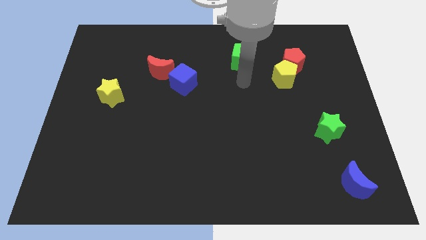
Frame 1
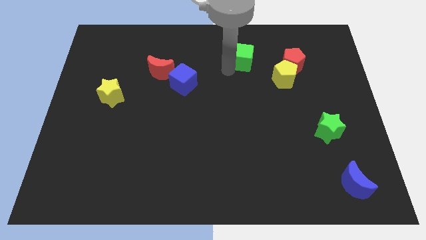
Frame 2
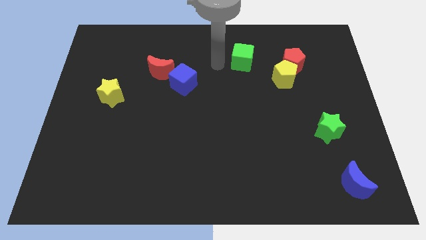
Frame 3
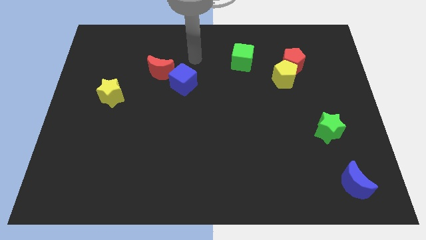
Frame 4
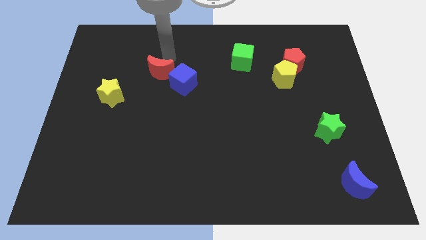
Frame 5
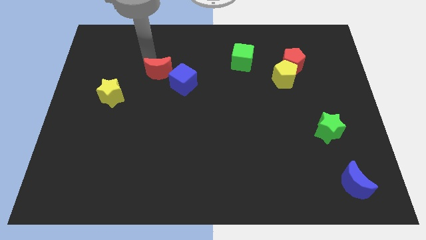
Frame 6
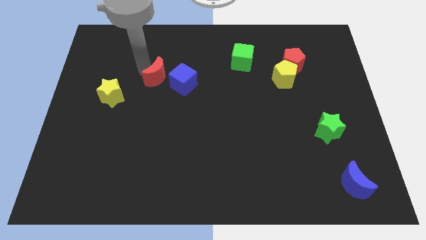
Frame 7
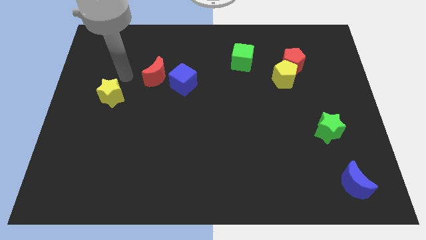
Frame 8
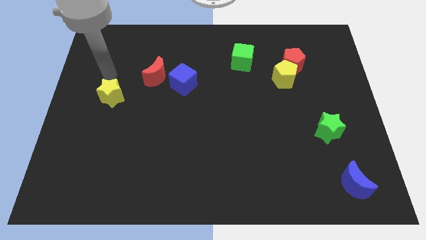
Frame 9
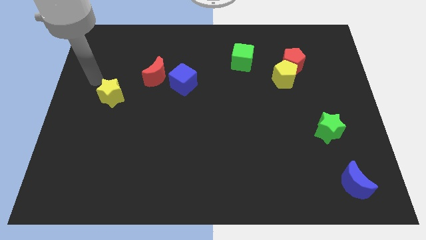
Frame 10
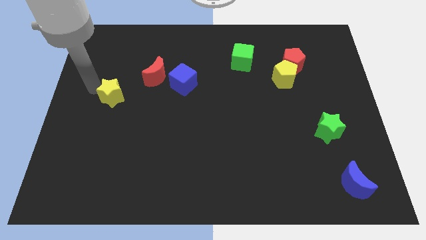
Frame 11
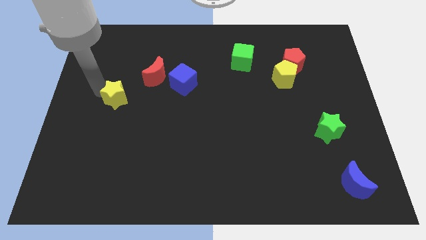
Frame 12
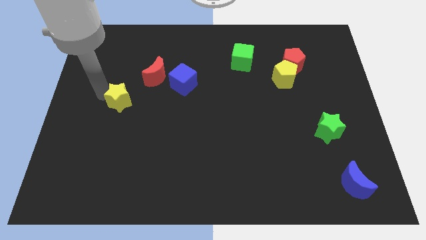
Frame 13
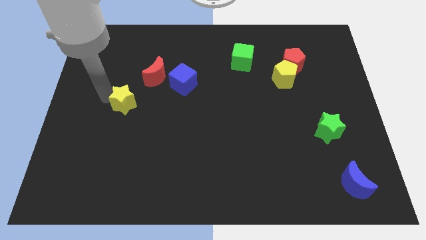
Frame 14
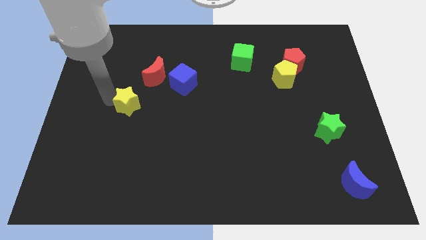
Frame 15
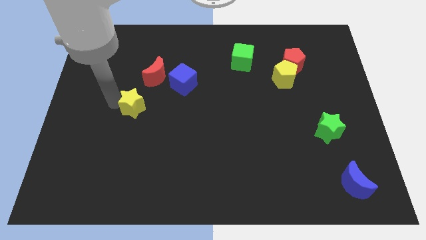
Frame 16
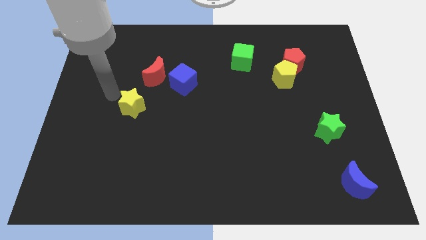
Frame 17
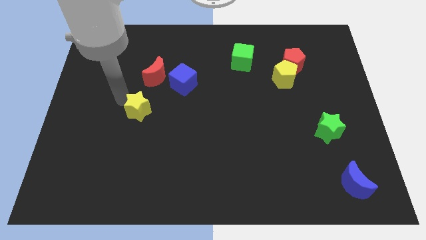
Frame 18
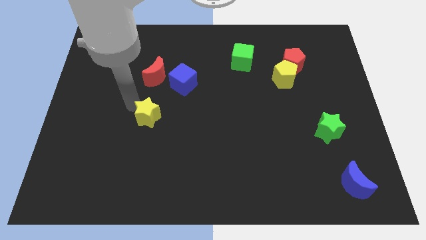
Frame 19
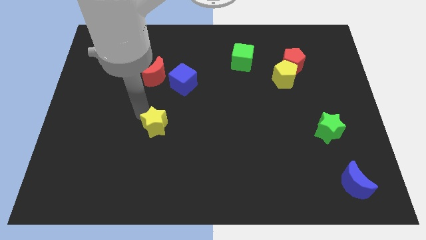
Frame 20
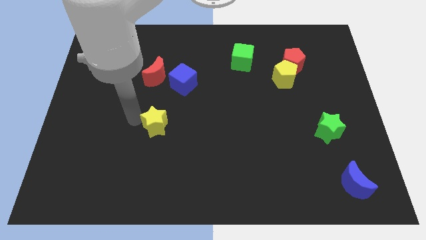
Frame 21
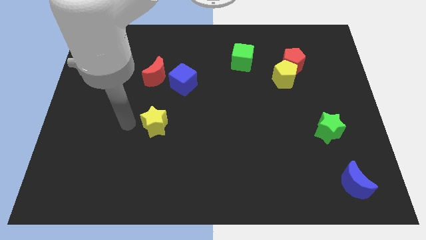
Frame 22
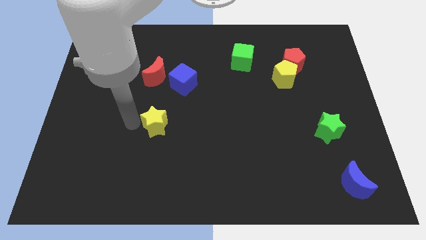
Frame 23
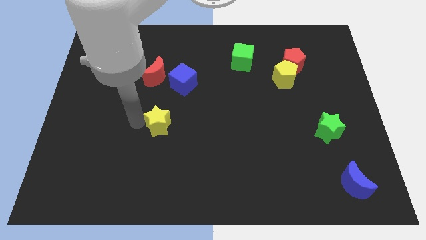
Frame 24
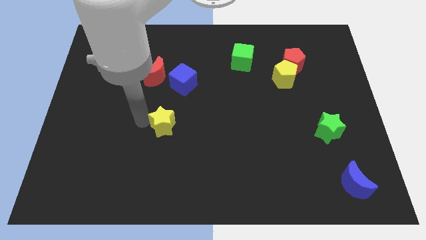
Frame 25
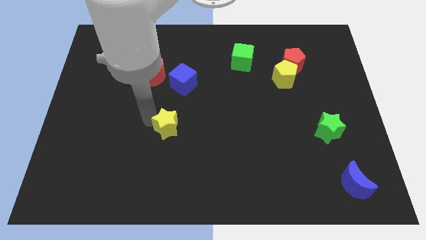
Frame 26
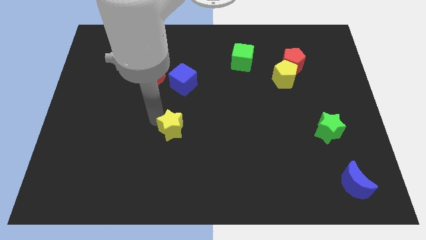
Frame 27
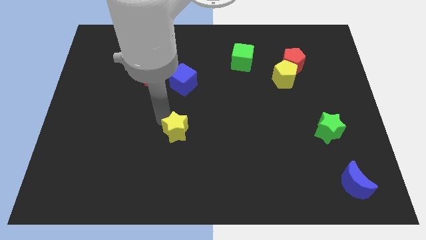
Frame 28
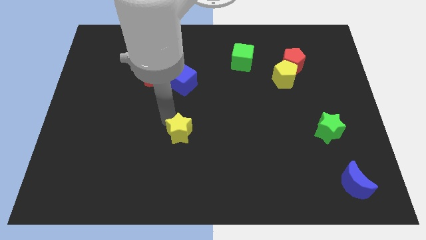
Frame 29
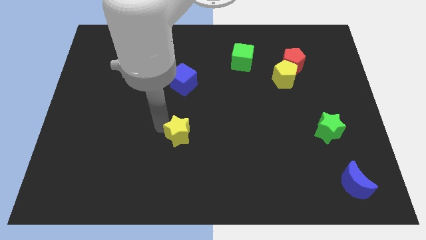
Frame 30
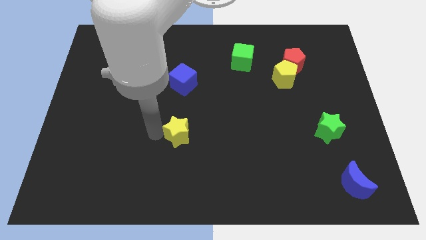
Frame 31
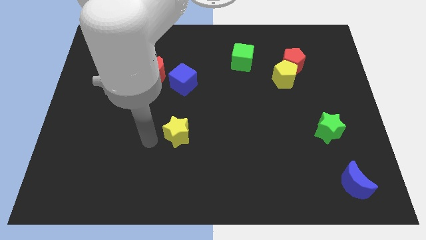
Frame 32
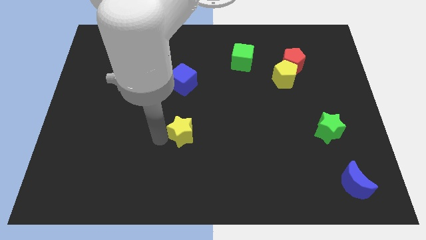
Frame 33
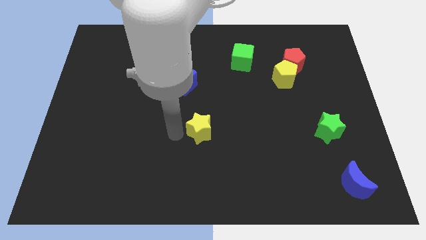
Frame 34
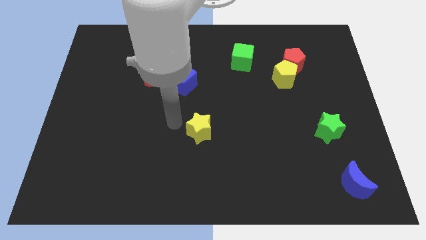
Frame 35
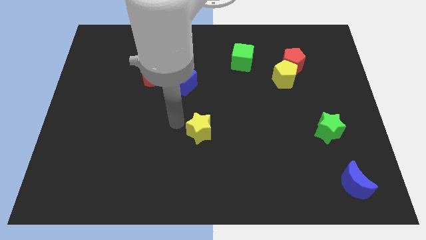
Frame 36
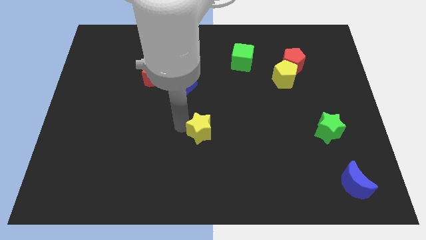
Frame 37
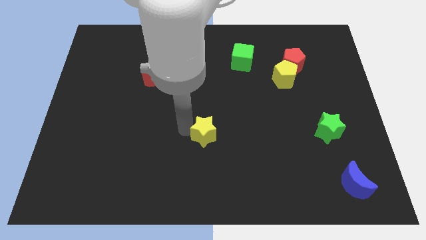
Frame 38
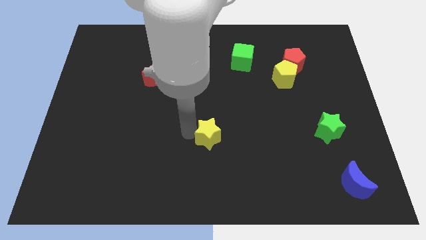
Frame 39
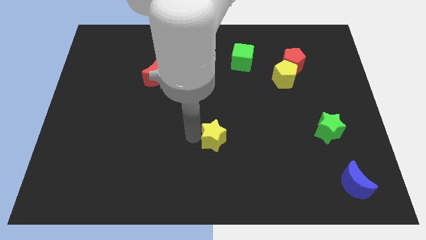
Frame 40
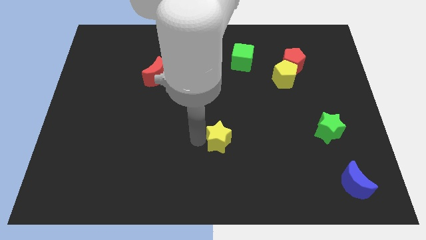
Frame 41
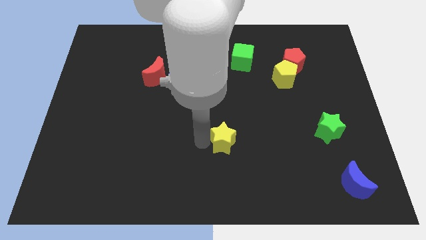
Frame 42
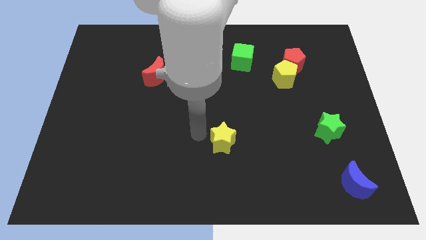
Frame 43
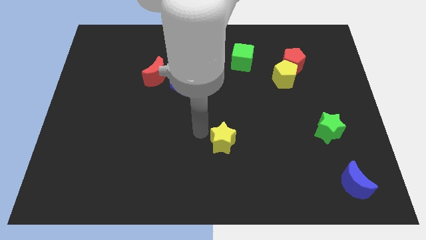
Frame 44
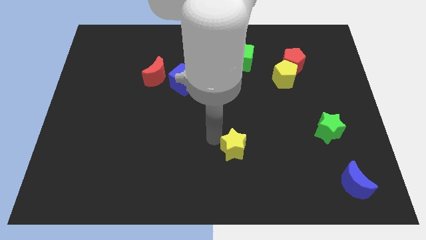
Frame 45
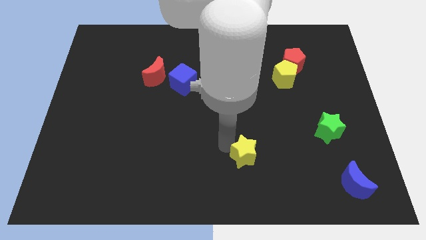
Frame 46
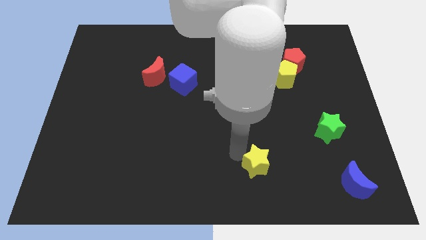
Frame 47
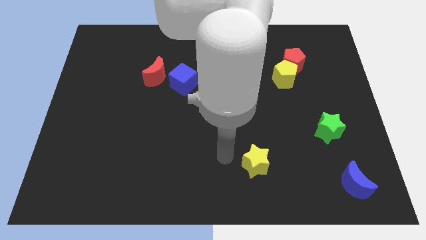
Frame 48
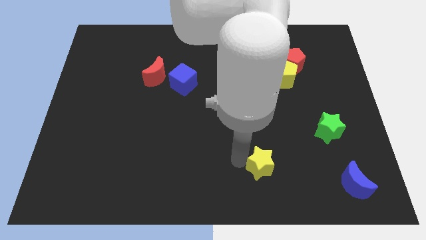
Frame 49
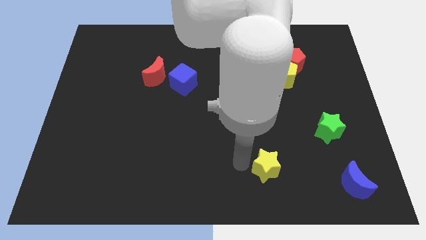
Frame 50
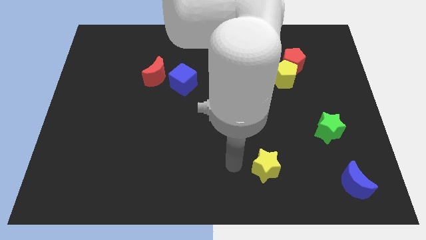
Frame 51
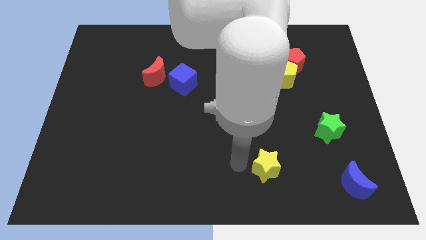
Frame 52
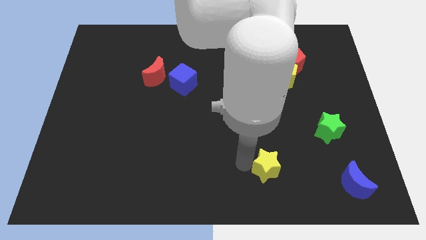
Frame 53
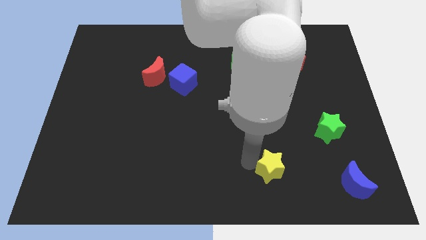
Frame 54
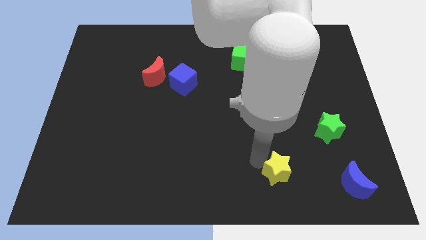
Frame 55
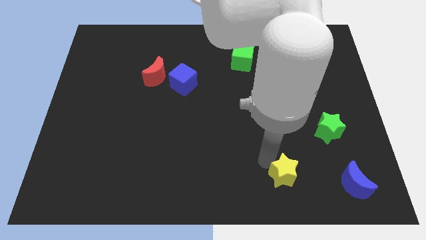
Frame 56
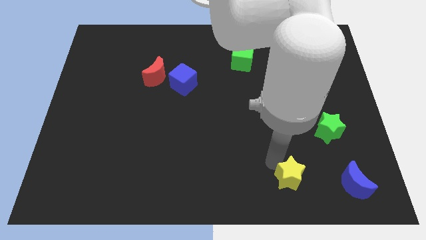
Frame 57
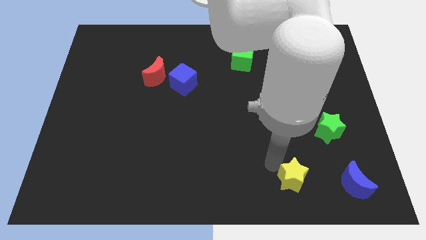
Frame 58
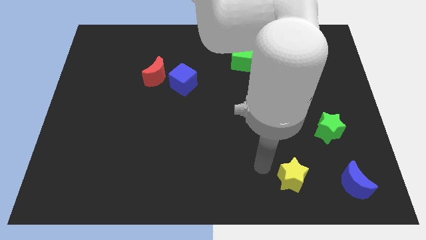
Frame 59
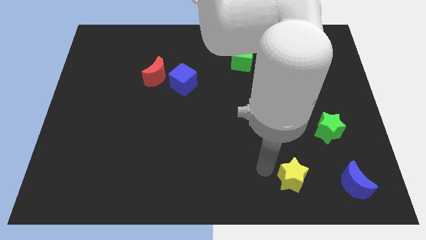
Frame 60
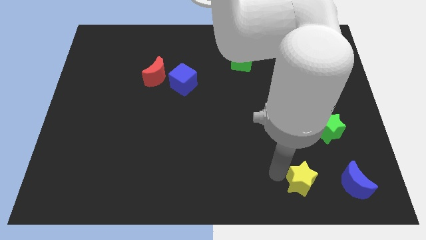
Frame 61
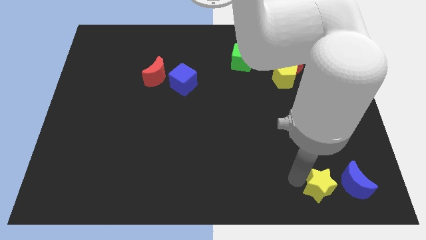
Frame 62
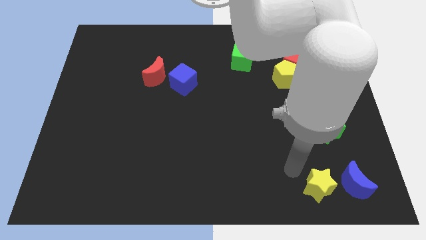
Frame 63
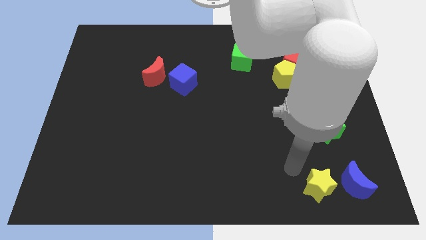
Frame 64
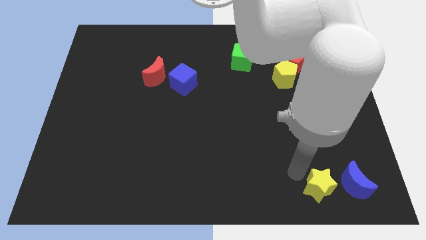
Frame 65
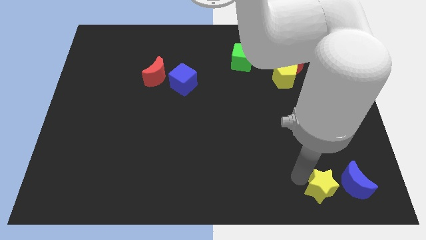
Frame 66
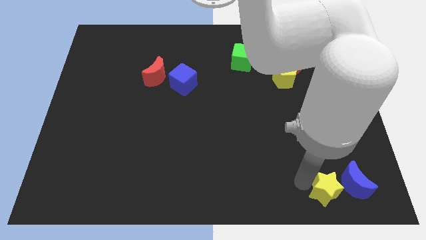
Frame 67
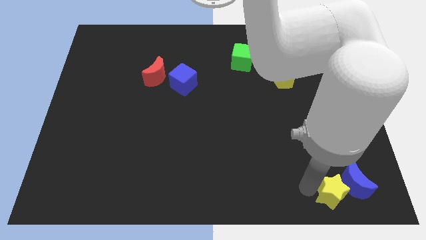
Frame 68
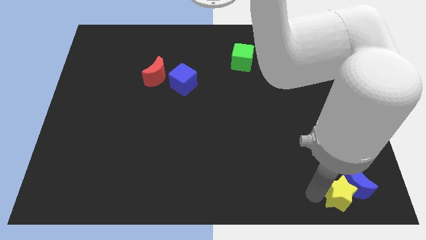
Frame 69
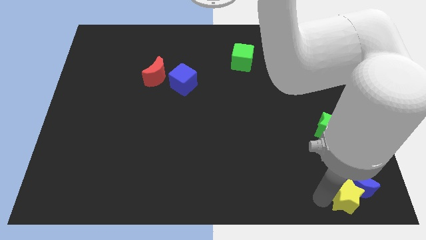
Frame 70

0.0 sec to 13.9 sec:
slide the yellow star to the bottom right corner
